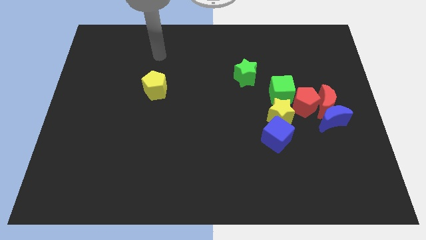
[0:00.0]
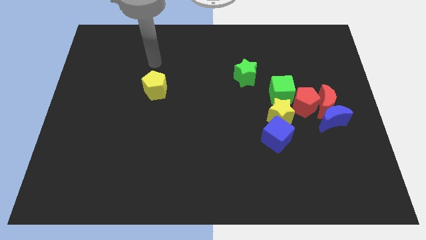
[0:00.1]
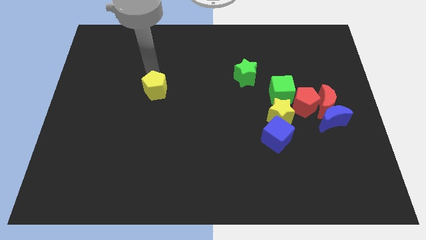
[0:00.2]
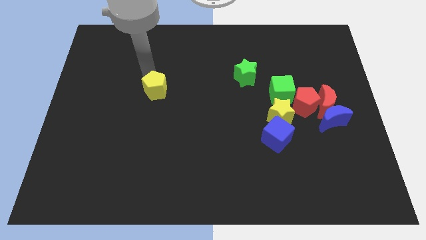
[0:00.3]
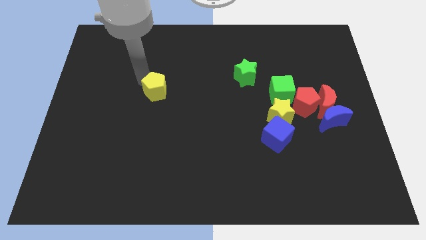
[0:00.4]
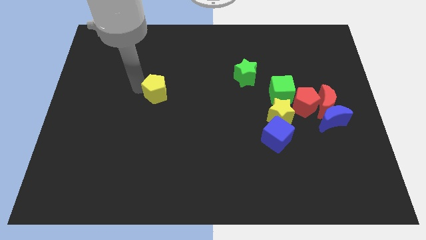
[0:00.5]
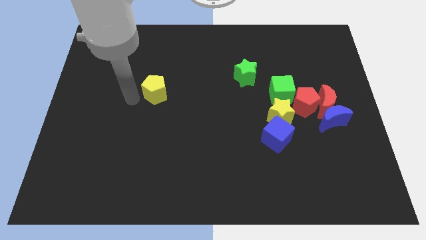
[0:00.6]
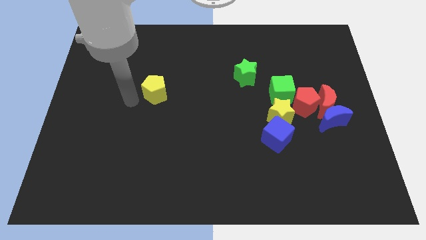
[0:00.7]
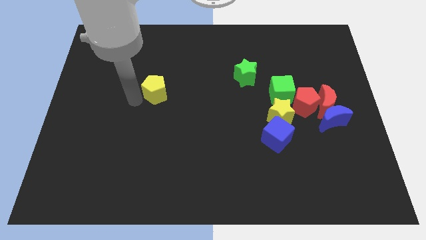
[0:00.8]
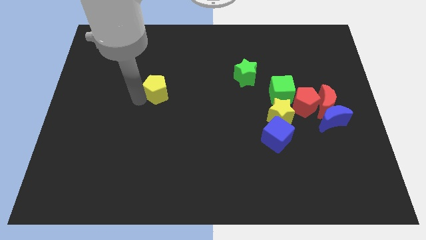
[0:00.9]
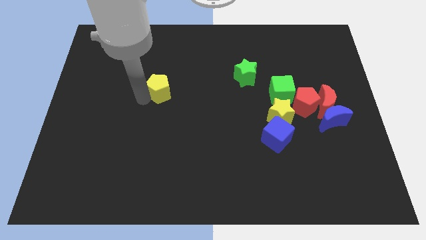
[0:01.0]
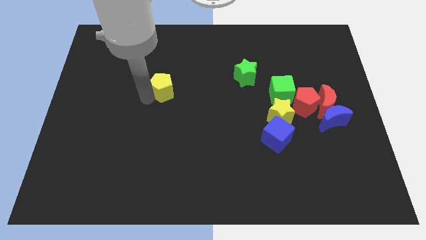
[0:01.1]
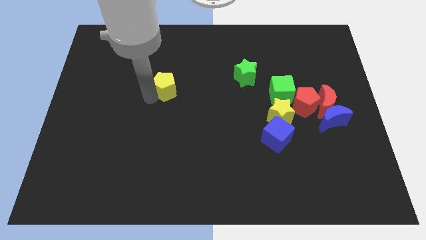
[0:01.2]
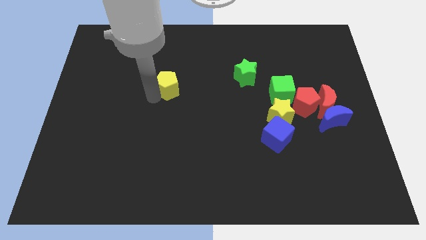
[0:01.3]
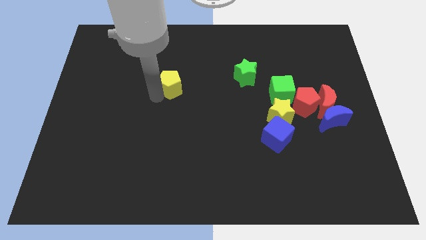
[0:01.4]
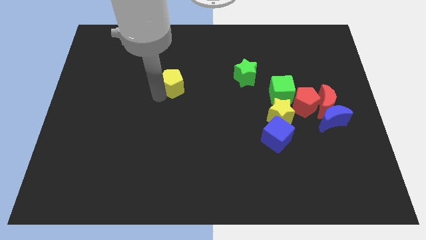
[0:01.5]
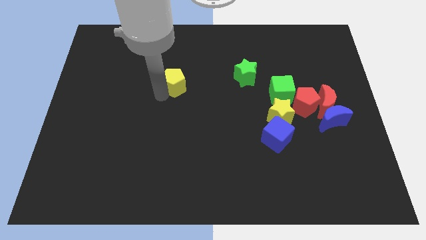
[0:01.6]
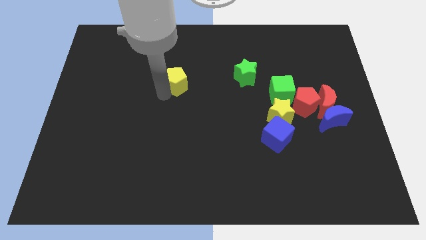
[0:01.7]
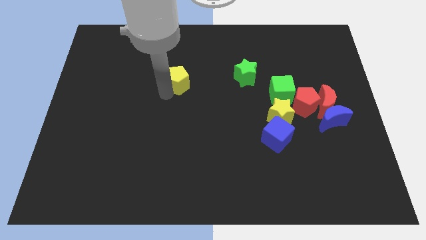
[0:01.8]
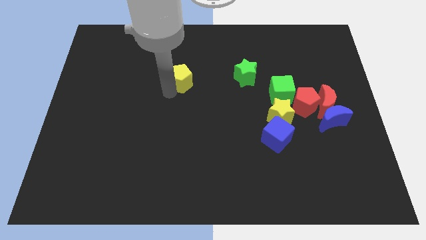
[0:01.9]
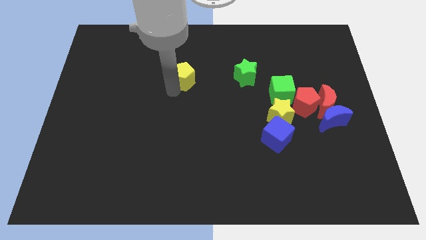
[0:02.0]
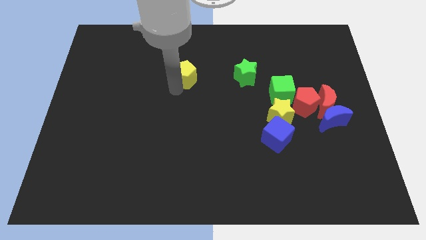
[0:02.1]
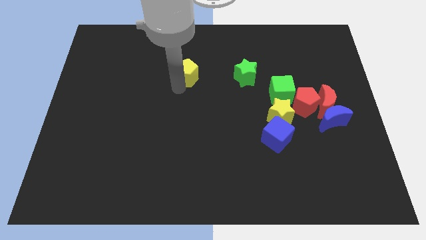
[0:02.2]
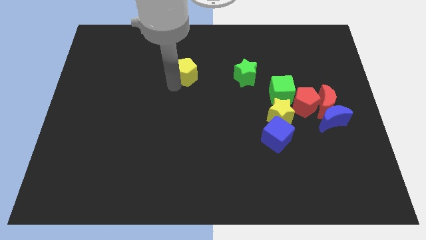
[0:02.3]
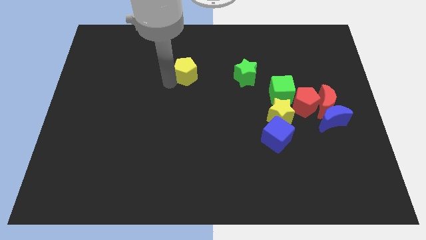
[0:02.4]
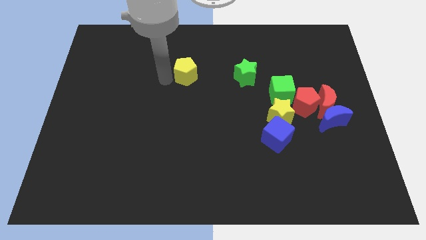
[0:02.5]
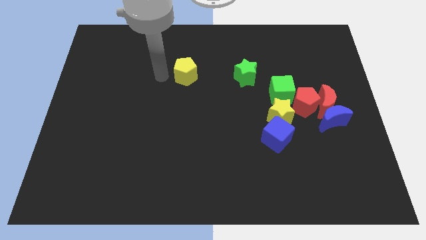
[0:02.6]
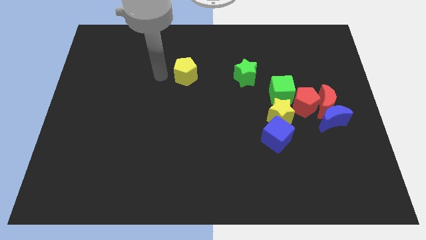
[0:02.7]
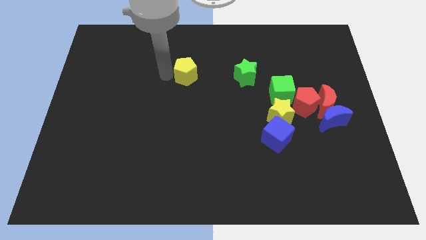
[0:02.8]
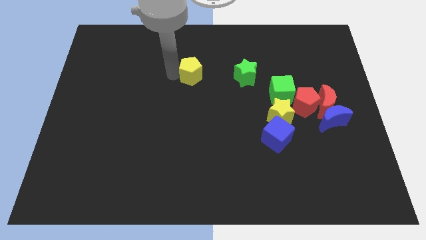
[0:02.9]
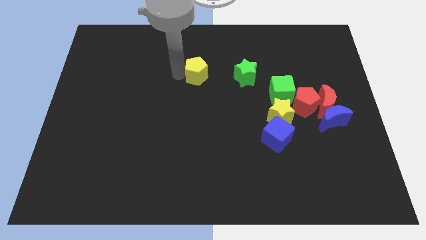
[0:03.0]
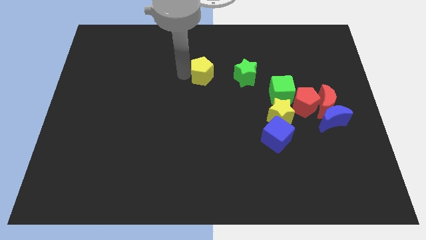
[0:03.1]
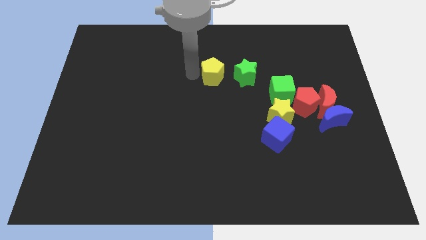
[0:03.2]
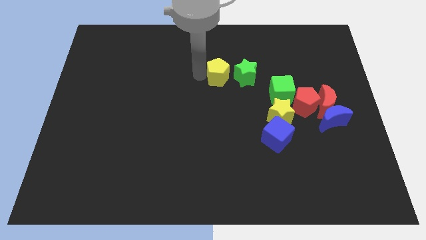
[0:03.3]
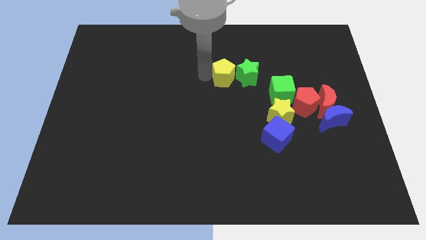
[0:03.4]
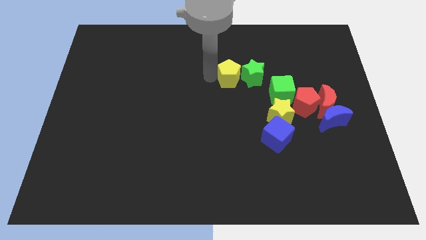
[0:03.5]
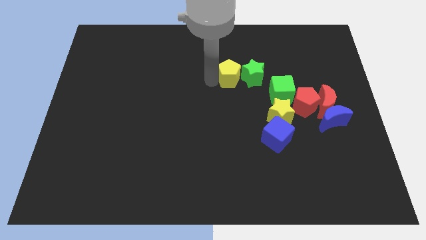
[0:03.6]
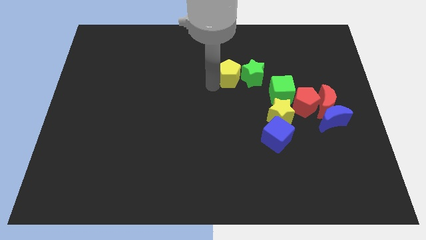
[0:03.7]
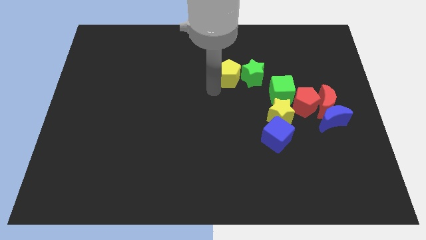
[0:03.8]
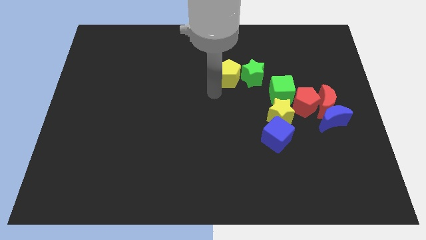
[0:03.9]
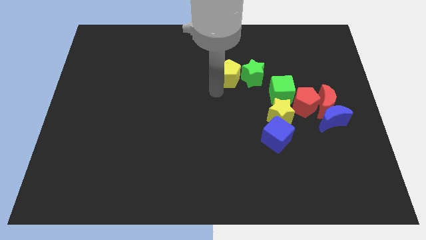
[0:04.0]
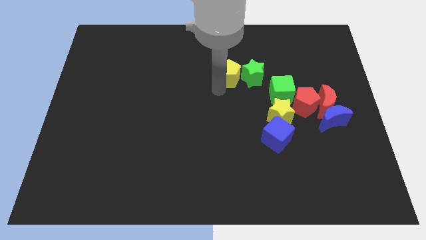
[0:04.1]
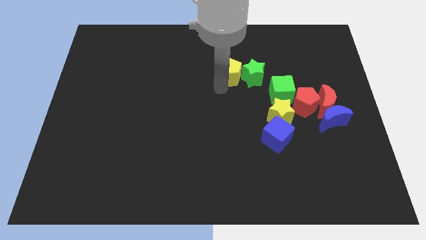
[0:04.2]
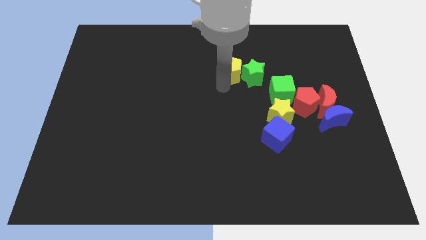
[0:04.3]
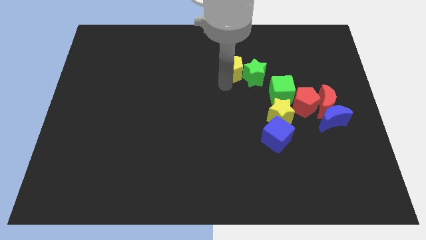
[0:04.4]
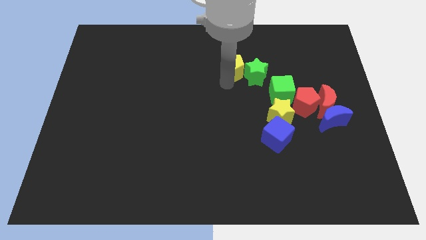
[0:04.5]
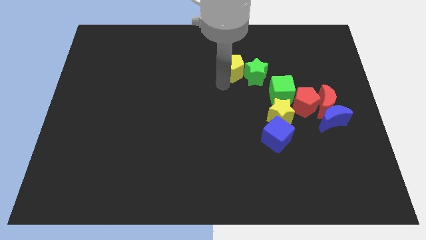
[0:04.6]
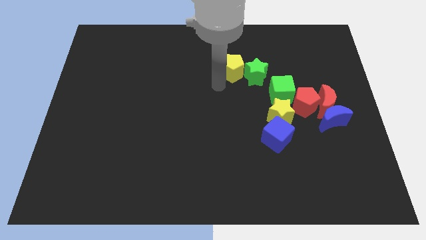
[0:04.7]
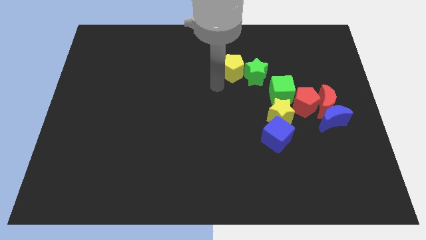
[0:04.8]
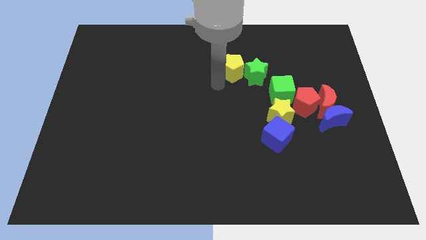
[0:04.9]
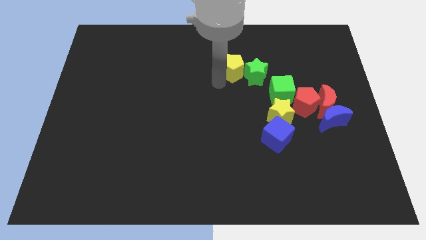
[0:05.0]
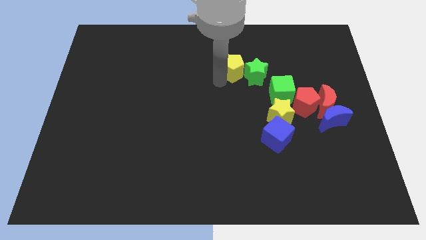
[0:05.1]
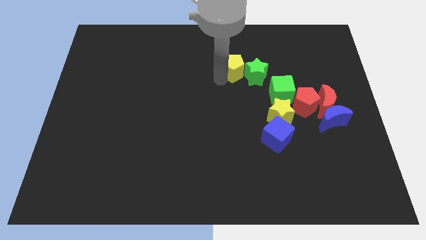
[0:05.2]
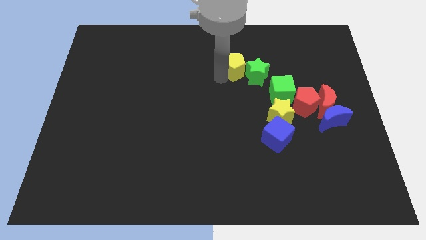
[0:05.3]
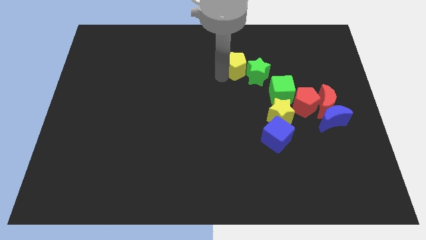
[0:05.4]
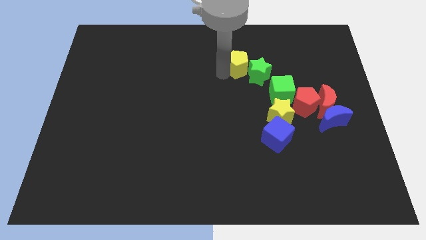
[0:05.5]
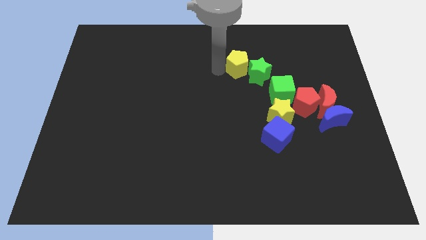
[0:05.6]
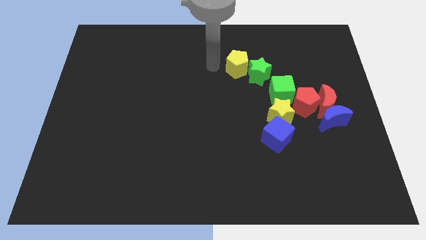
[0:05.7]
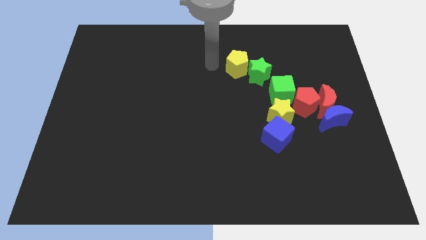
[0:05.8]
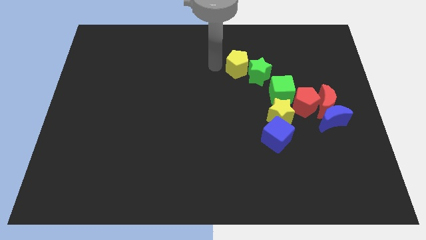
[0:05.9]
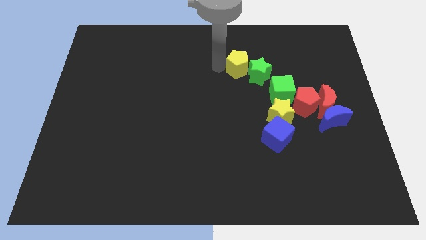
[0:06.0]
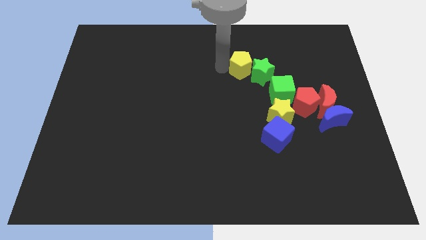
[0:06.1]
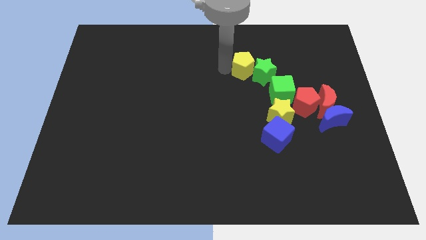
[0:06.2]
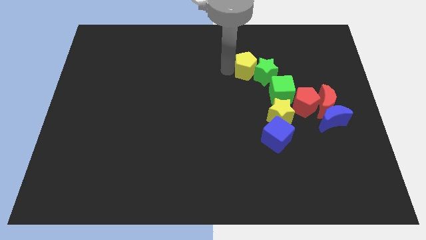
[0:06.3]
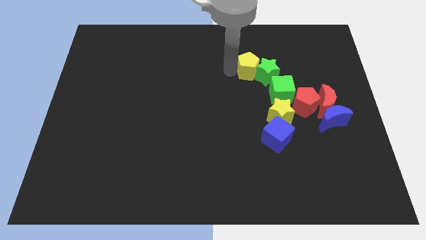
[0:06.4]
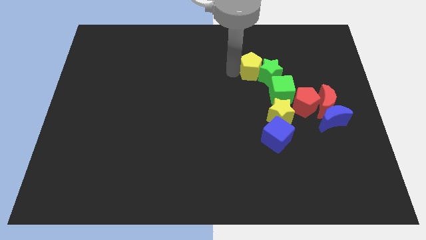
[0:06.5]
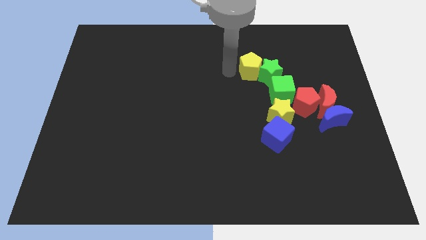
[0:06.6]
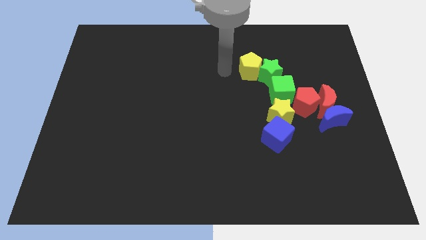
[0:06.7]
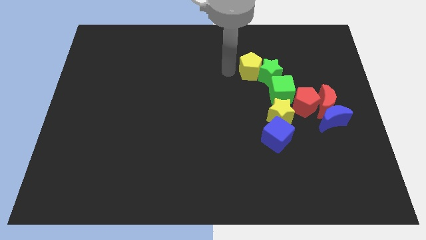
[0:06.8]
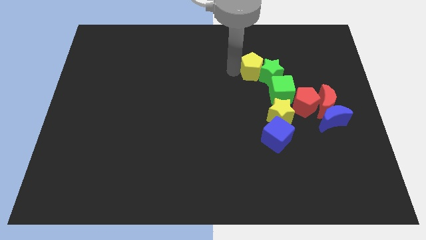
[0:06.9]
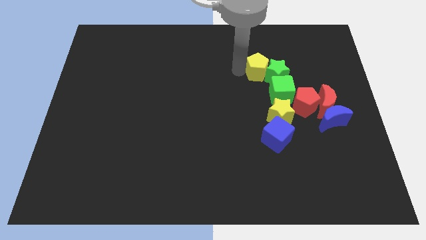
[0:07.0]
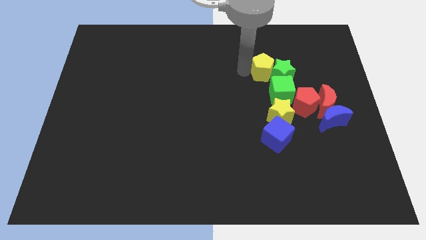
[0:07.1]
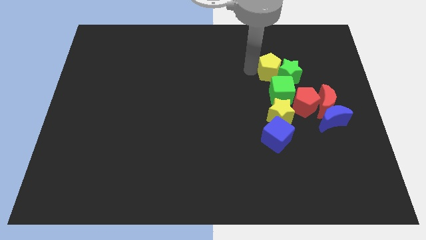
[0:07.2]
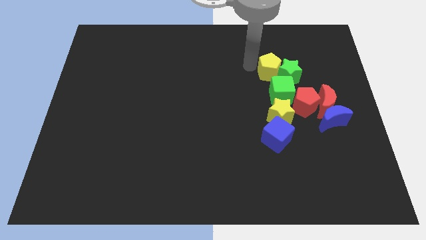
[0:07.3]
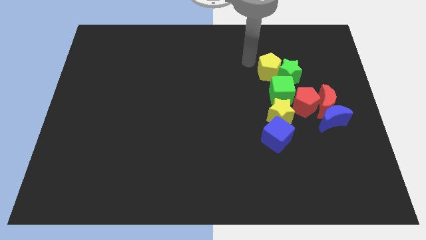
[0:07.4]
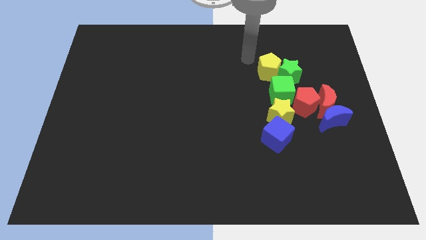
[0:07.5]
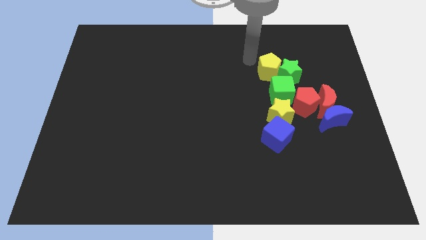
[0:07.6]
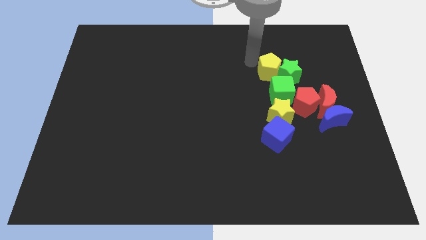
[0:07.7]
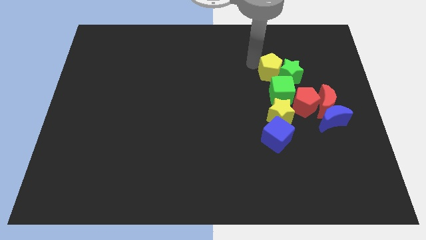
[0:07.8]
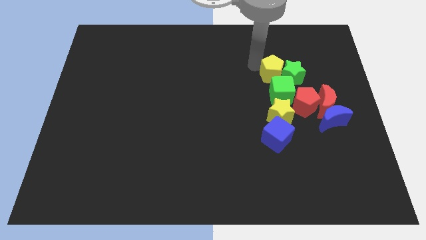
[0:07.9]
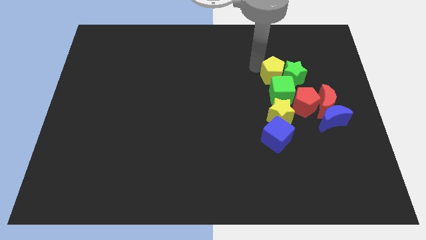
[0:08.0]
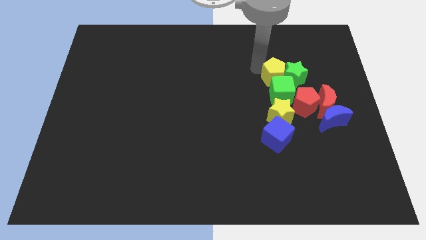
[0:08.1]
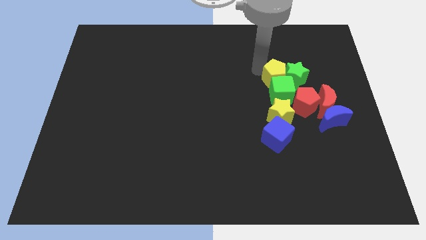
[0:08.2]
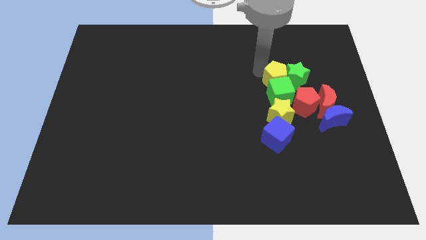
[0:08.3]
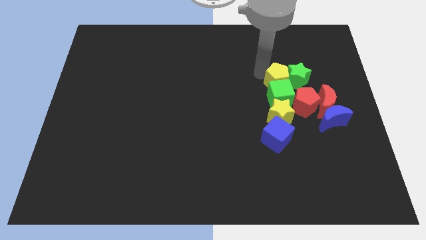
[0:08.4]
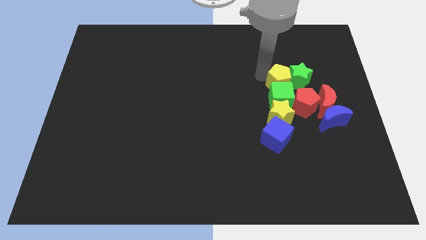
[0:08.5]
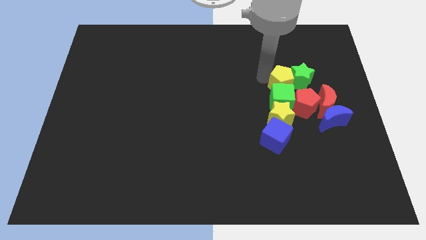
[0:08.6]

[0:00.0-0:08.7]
push the yellow pentagon to the top left side of the red moon
